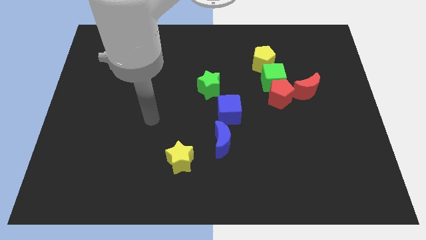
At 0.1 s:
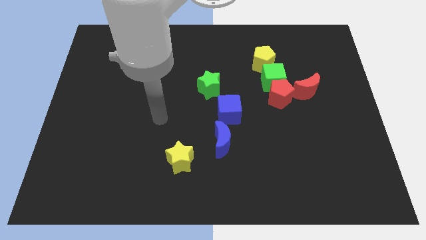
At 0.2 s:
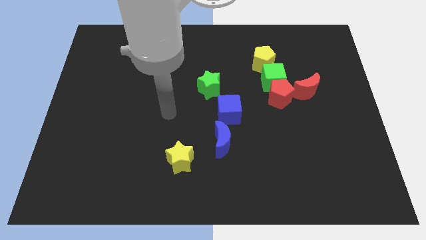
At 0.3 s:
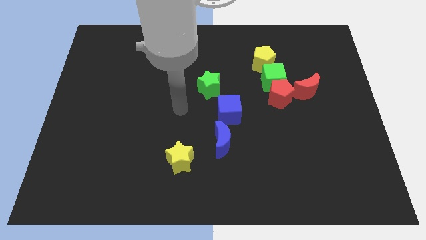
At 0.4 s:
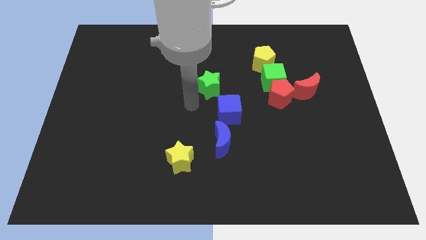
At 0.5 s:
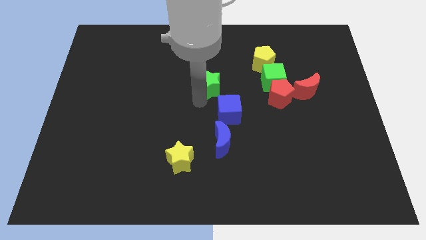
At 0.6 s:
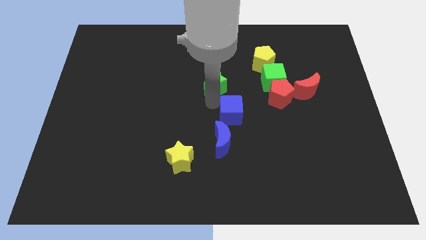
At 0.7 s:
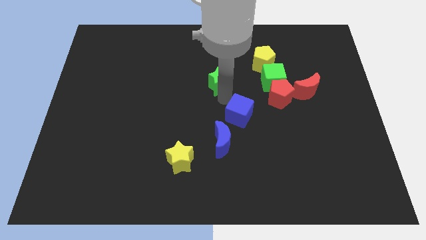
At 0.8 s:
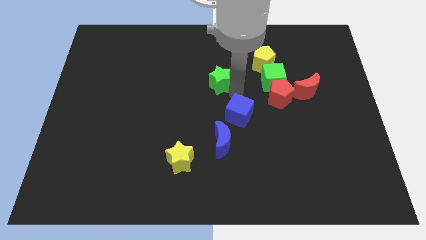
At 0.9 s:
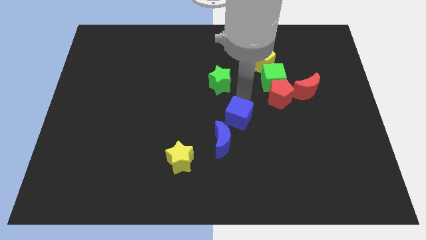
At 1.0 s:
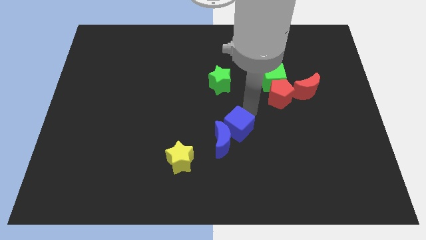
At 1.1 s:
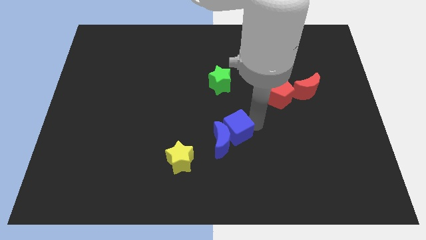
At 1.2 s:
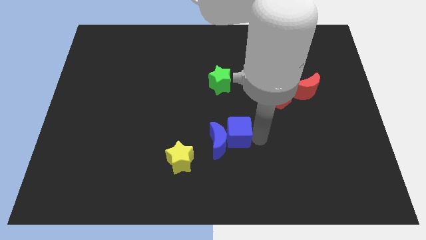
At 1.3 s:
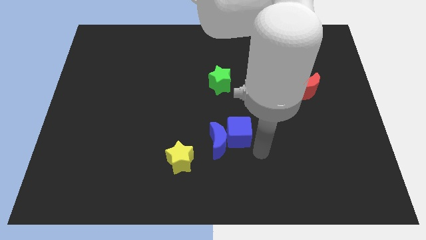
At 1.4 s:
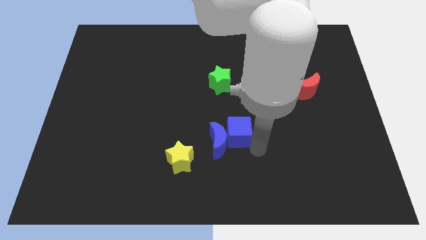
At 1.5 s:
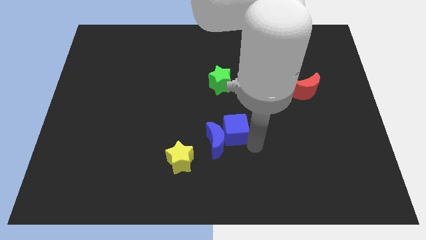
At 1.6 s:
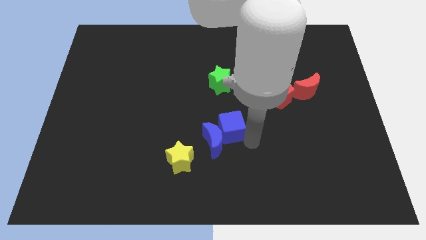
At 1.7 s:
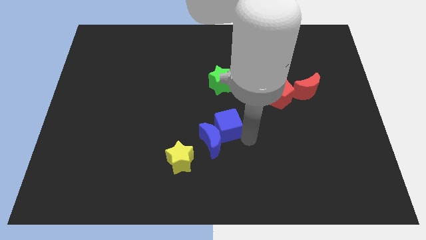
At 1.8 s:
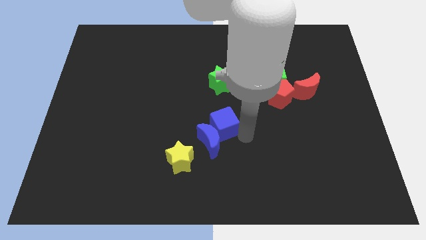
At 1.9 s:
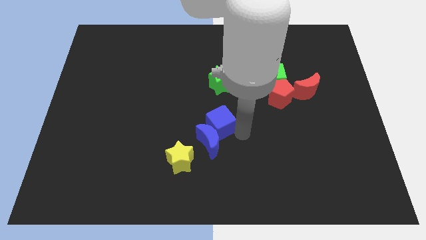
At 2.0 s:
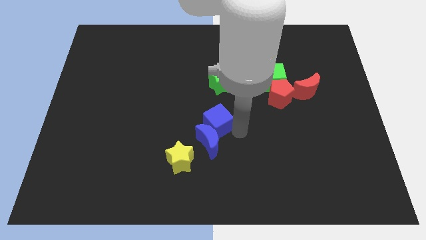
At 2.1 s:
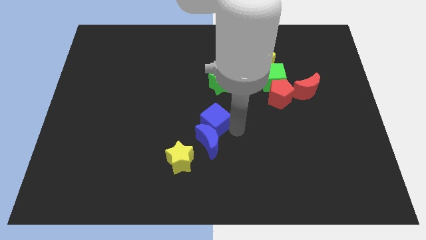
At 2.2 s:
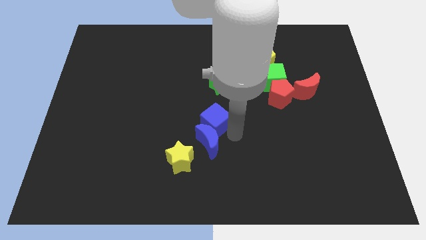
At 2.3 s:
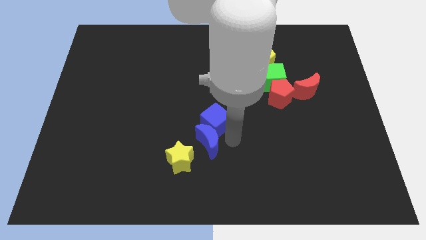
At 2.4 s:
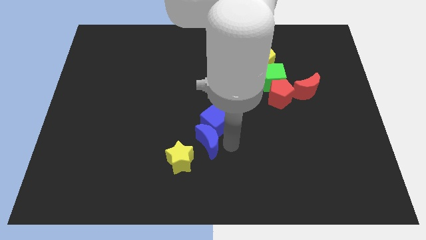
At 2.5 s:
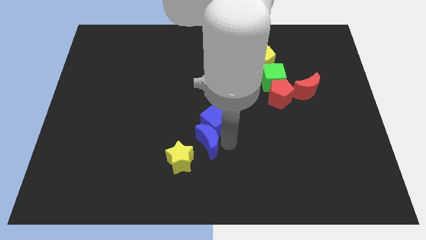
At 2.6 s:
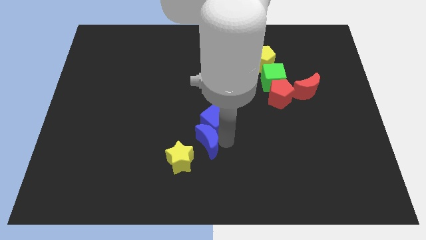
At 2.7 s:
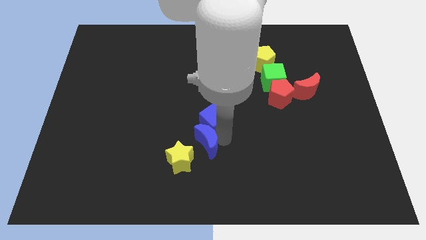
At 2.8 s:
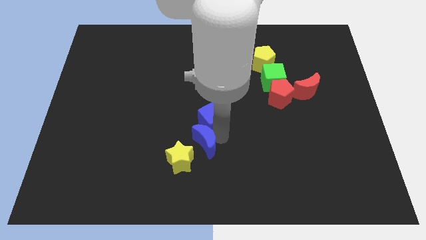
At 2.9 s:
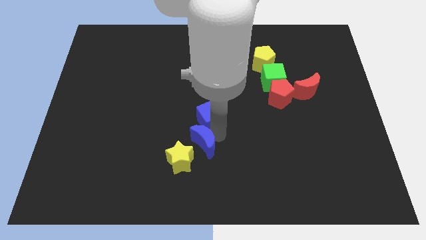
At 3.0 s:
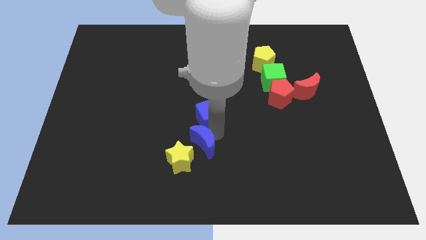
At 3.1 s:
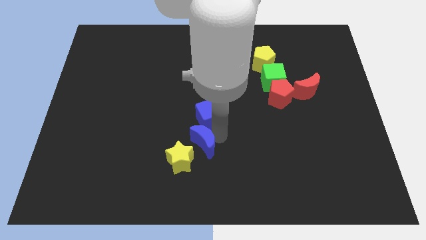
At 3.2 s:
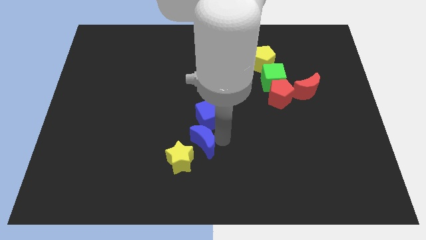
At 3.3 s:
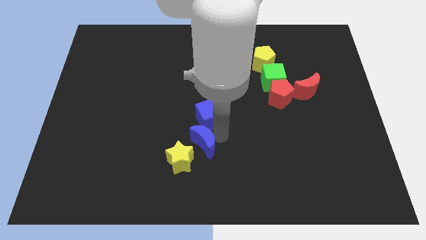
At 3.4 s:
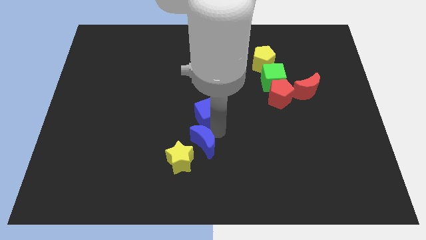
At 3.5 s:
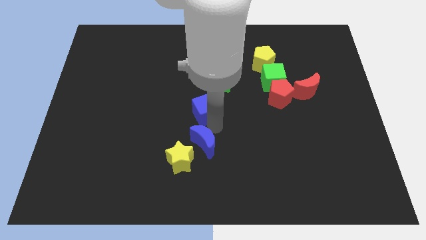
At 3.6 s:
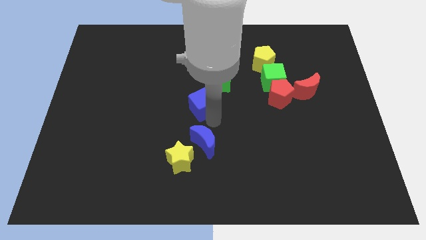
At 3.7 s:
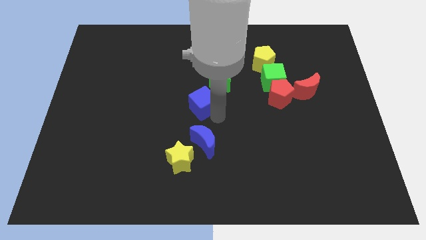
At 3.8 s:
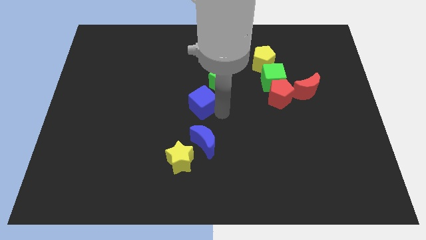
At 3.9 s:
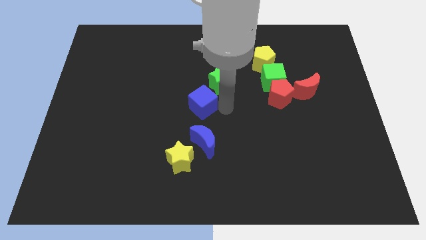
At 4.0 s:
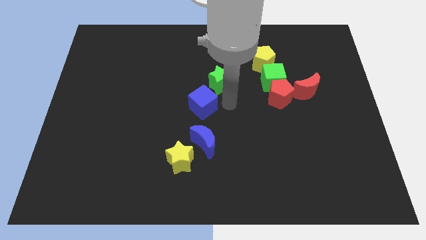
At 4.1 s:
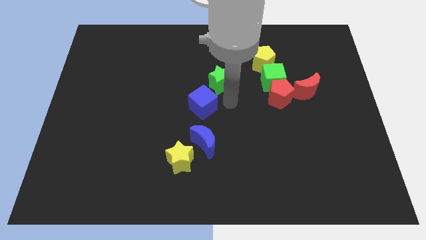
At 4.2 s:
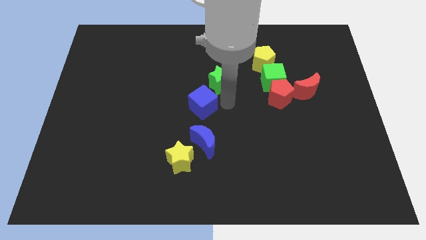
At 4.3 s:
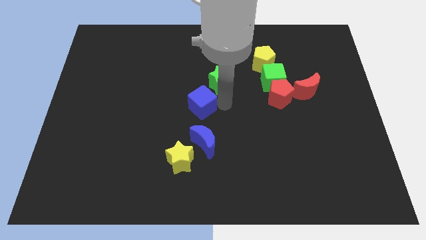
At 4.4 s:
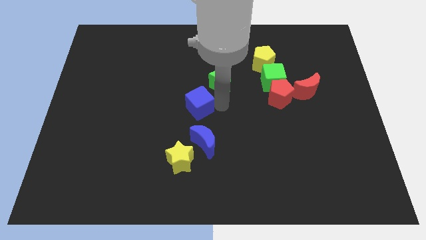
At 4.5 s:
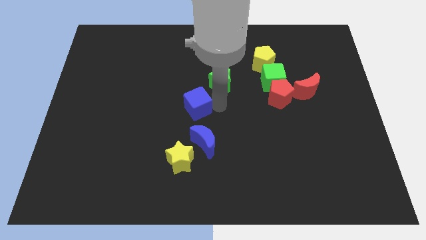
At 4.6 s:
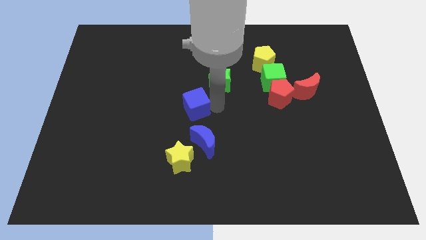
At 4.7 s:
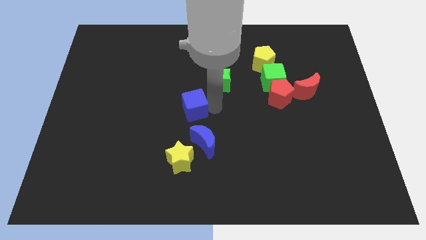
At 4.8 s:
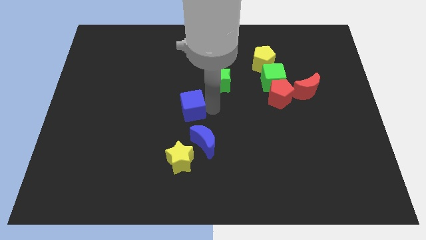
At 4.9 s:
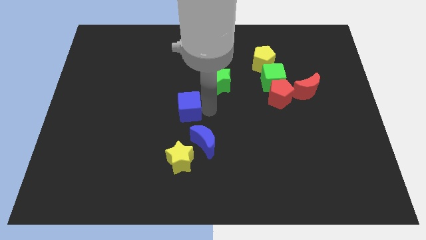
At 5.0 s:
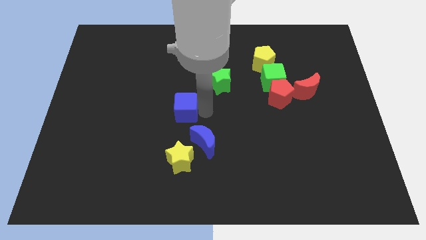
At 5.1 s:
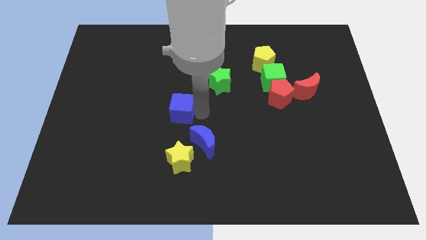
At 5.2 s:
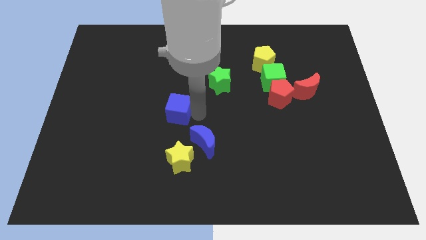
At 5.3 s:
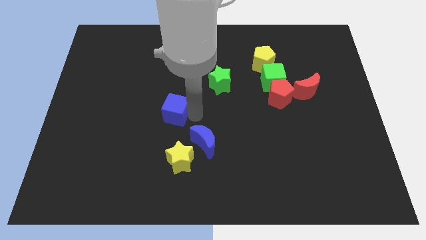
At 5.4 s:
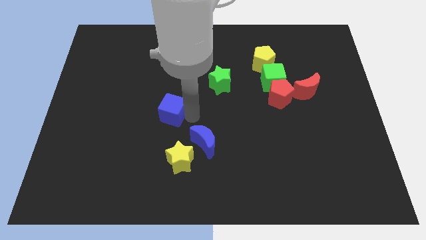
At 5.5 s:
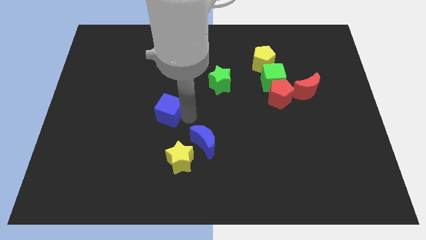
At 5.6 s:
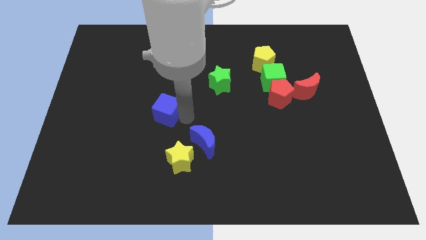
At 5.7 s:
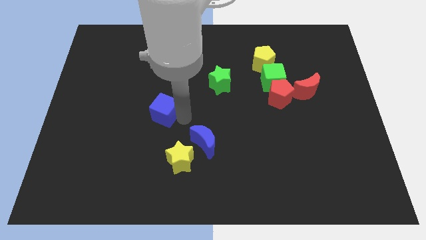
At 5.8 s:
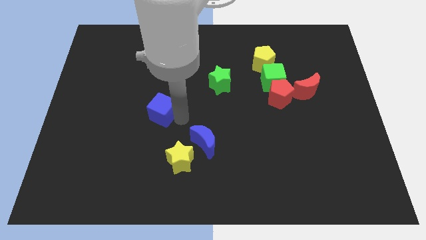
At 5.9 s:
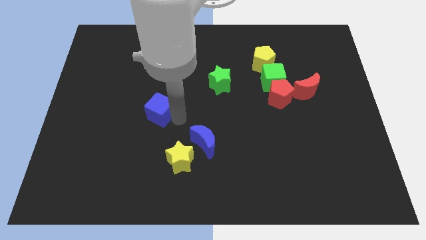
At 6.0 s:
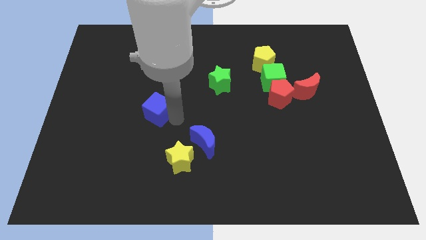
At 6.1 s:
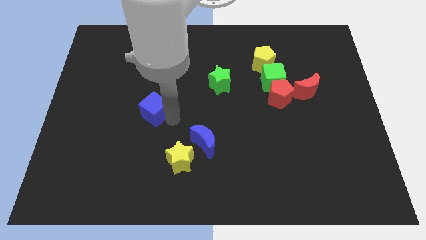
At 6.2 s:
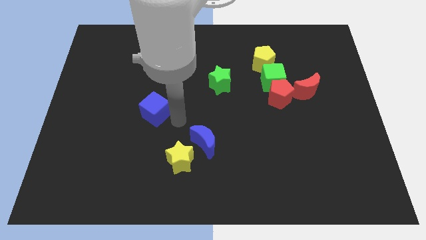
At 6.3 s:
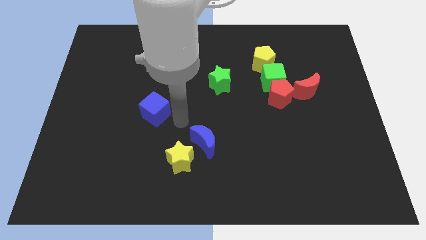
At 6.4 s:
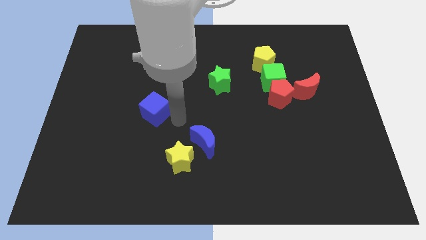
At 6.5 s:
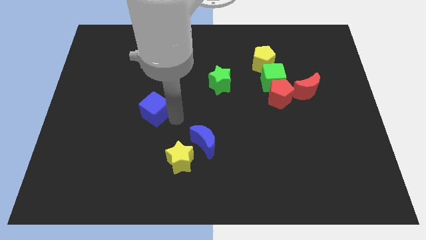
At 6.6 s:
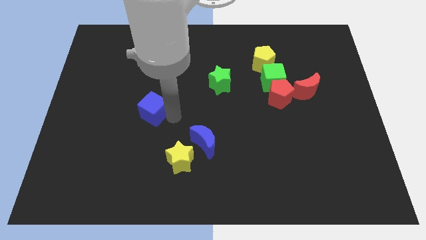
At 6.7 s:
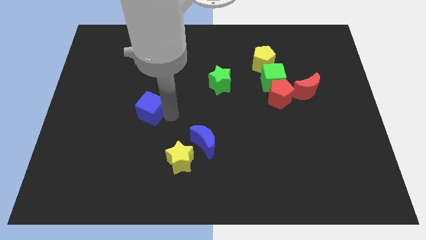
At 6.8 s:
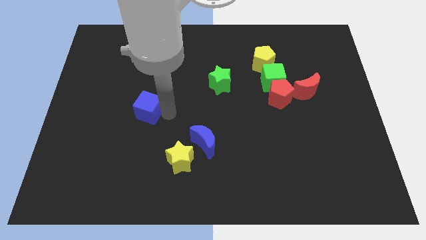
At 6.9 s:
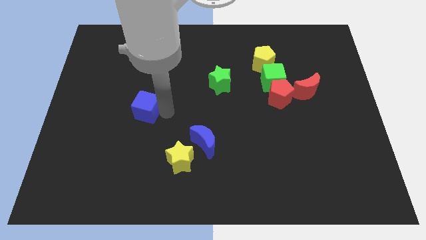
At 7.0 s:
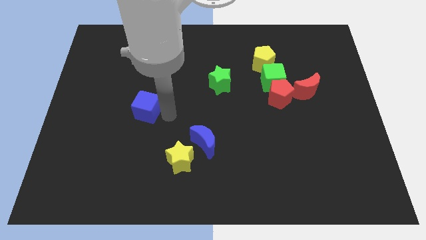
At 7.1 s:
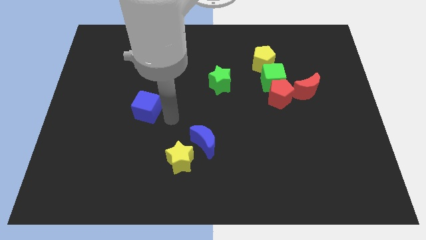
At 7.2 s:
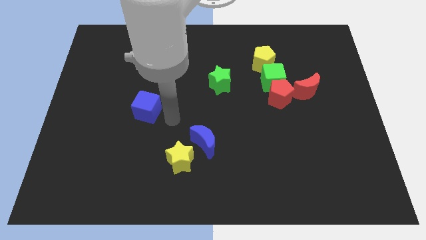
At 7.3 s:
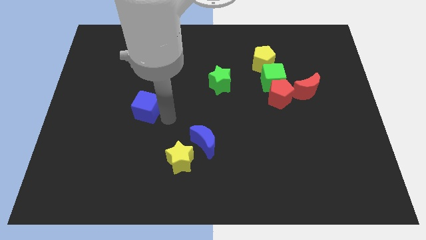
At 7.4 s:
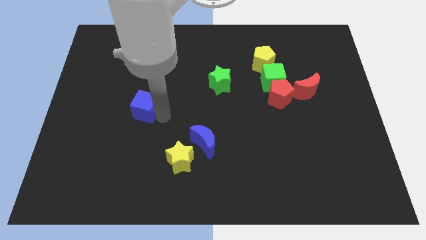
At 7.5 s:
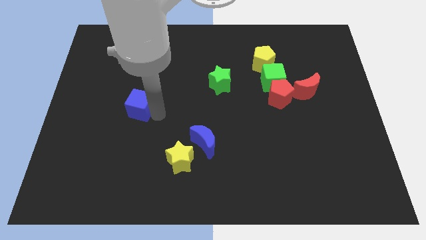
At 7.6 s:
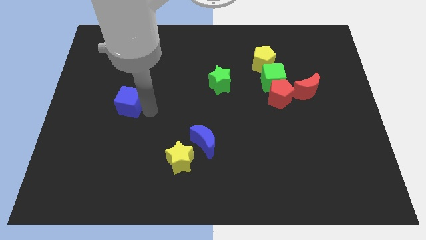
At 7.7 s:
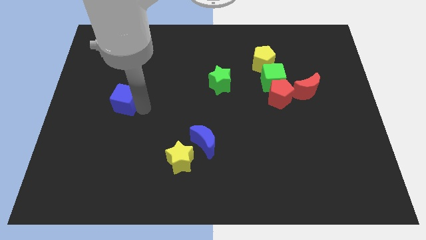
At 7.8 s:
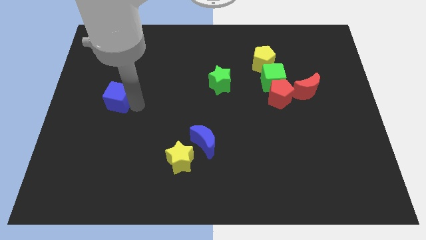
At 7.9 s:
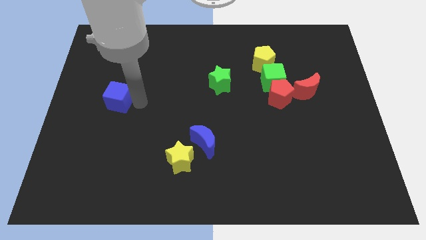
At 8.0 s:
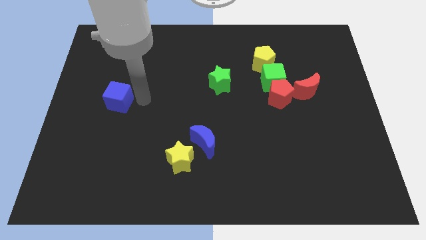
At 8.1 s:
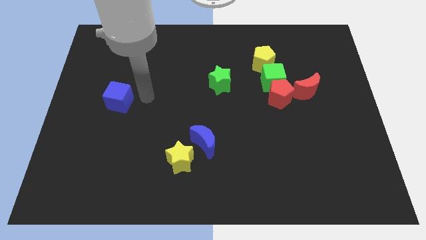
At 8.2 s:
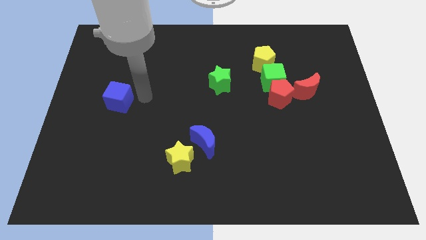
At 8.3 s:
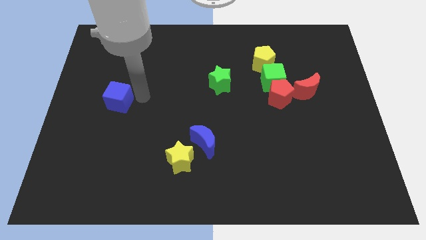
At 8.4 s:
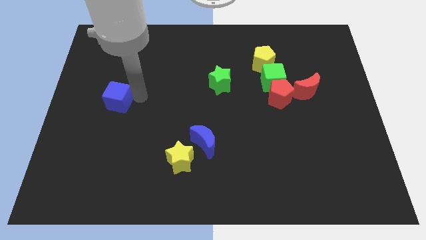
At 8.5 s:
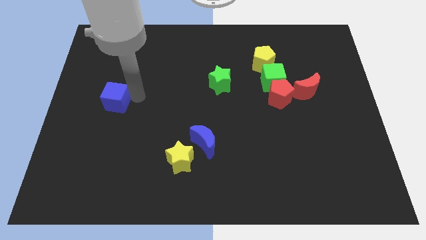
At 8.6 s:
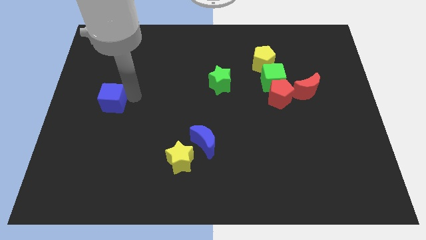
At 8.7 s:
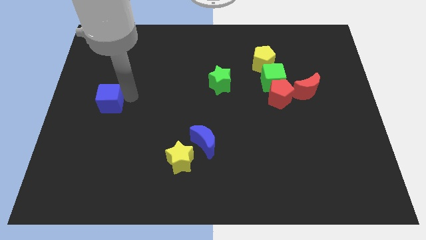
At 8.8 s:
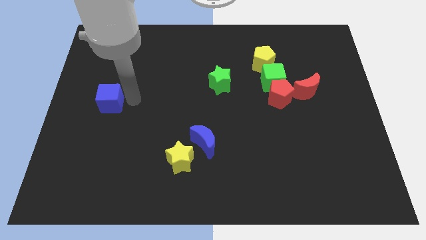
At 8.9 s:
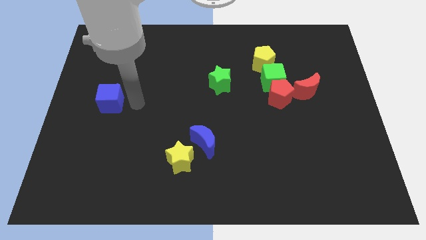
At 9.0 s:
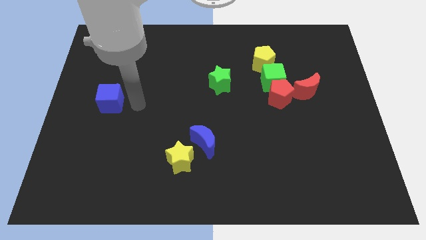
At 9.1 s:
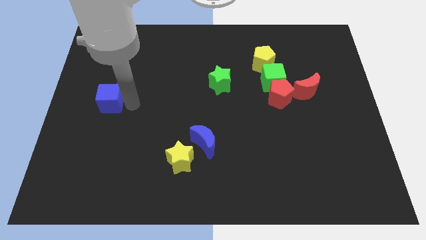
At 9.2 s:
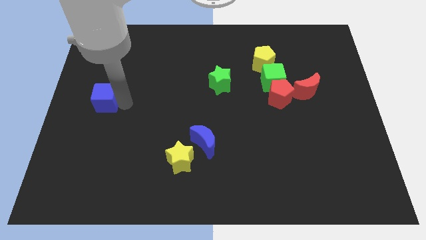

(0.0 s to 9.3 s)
slide the blue cube to the center left
